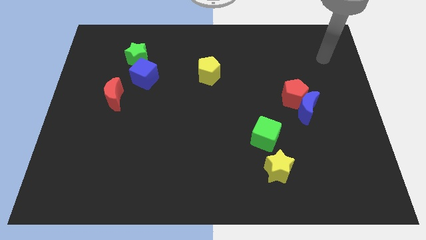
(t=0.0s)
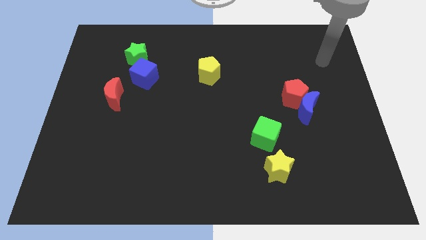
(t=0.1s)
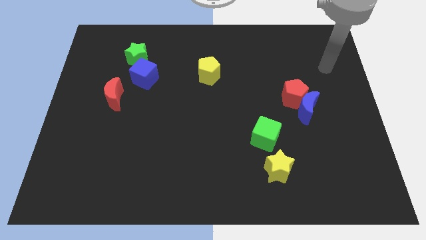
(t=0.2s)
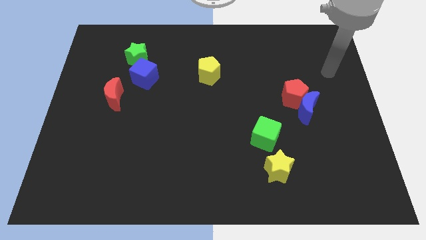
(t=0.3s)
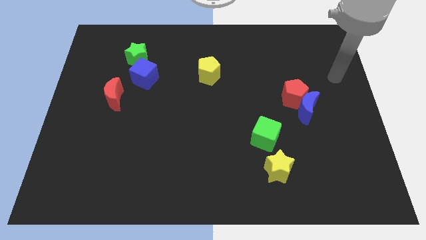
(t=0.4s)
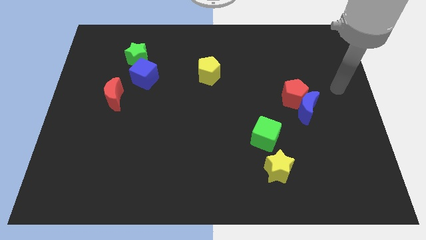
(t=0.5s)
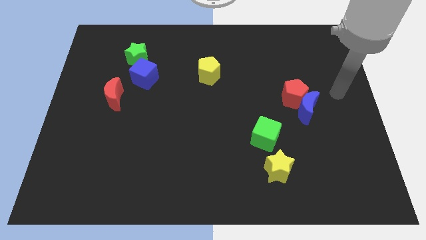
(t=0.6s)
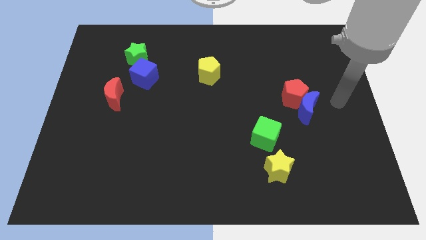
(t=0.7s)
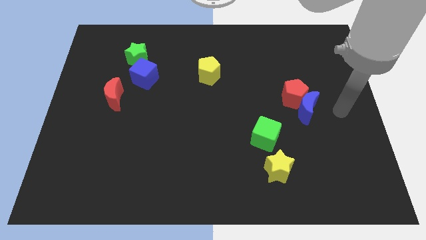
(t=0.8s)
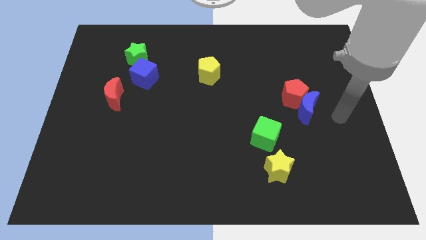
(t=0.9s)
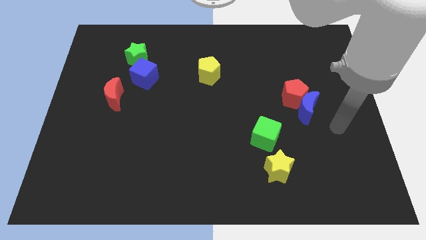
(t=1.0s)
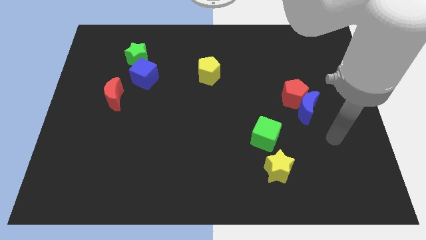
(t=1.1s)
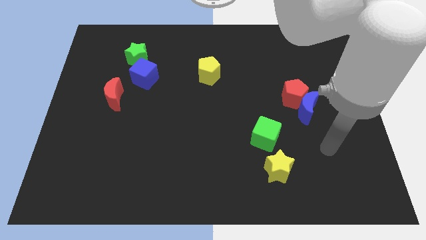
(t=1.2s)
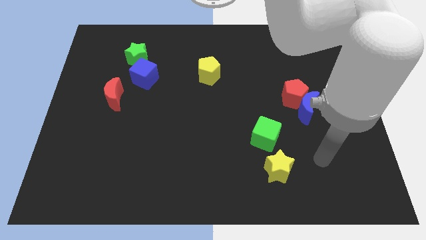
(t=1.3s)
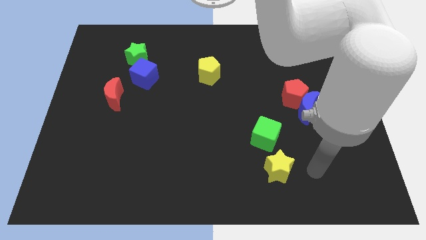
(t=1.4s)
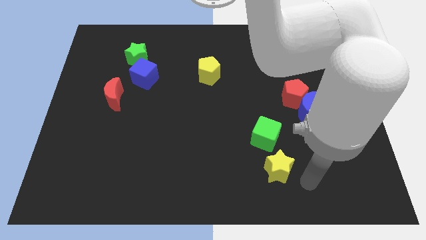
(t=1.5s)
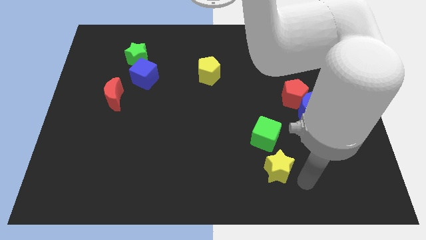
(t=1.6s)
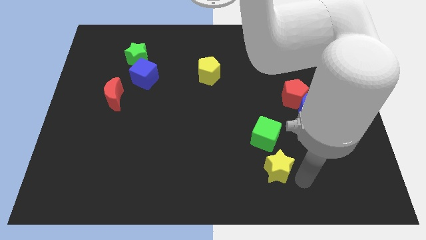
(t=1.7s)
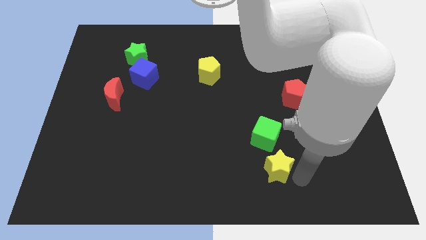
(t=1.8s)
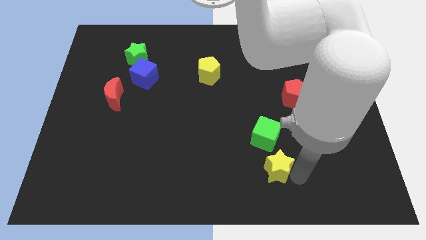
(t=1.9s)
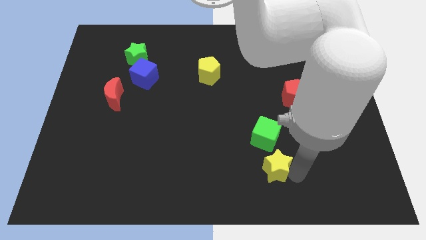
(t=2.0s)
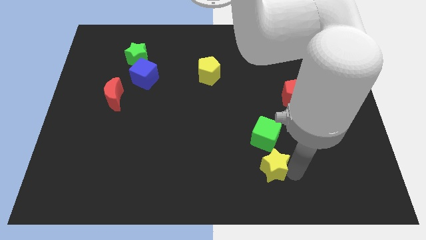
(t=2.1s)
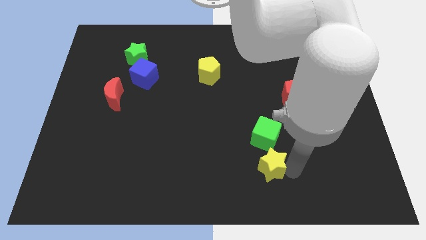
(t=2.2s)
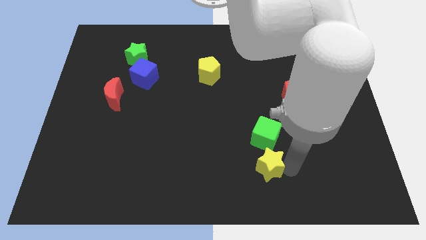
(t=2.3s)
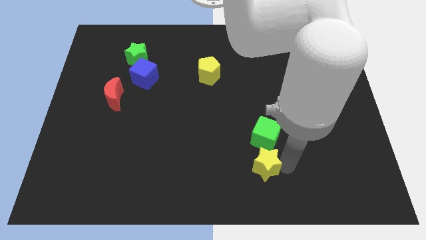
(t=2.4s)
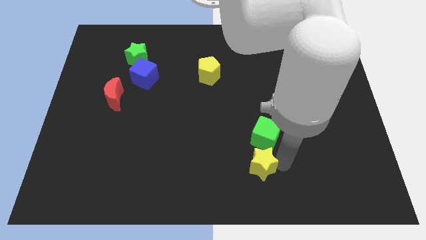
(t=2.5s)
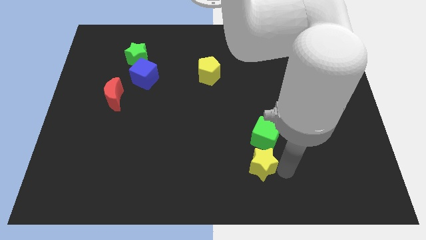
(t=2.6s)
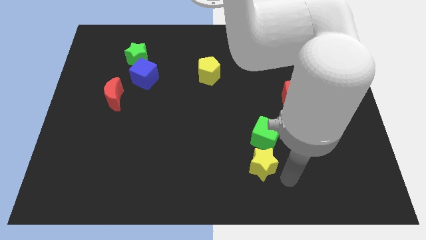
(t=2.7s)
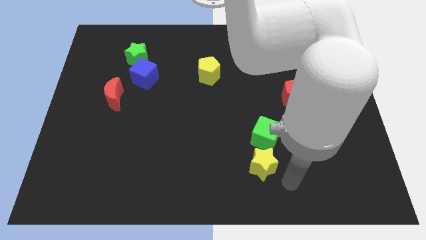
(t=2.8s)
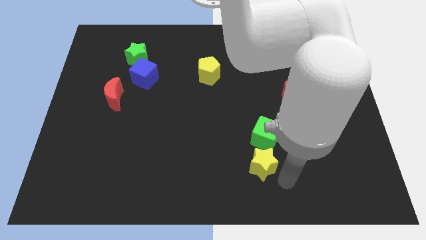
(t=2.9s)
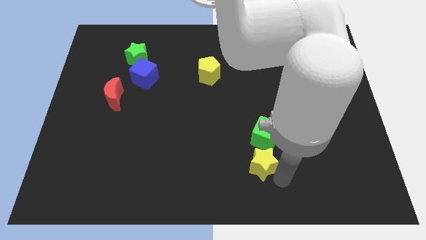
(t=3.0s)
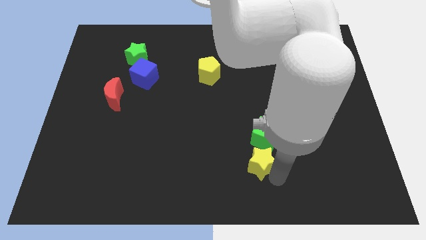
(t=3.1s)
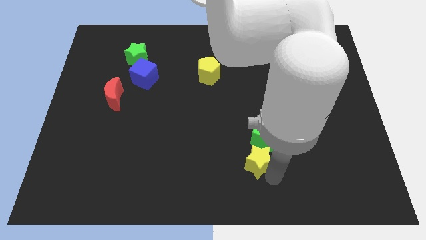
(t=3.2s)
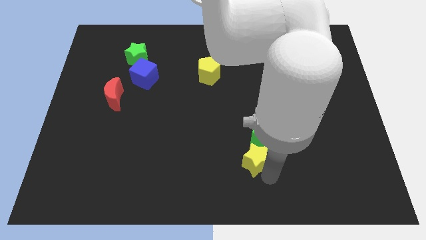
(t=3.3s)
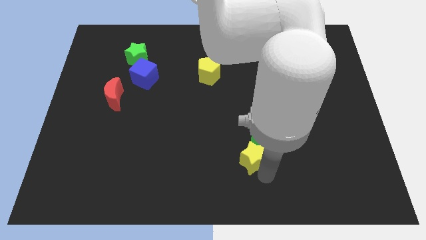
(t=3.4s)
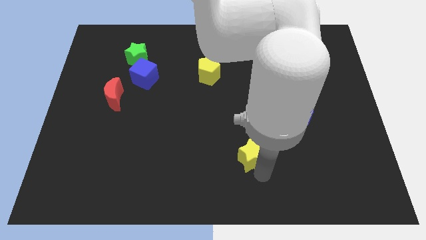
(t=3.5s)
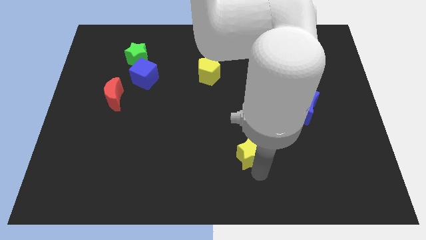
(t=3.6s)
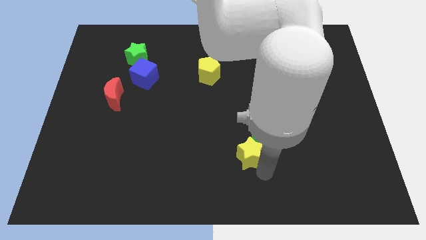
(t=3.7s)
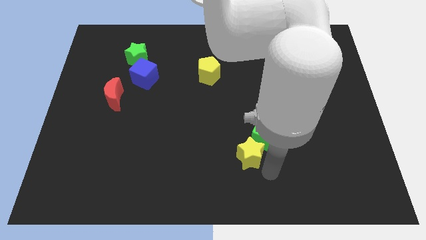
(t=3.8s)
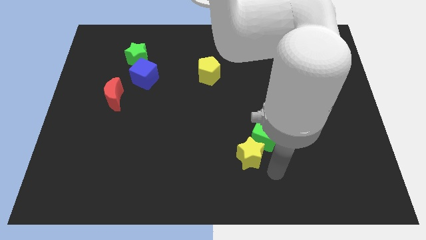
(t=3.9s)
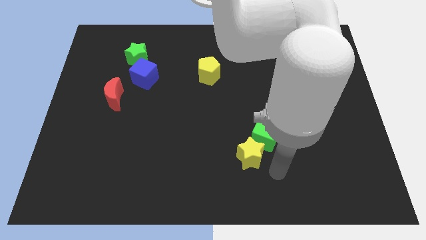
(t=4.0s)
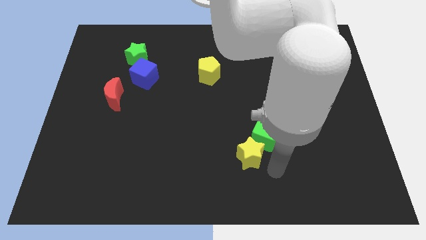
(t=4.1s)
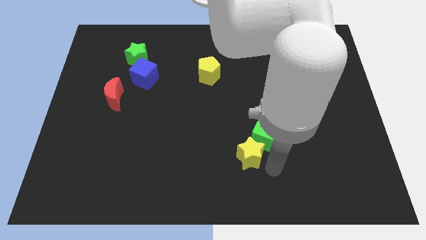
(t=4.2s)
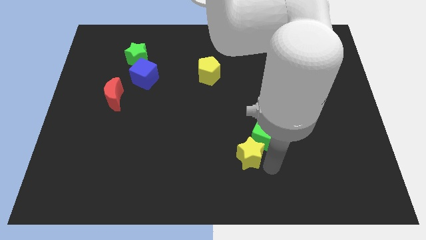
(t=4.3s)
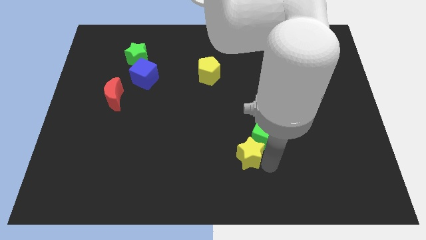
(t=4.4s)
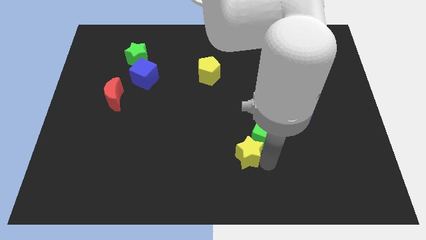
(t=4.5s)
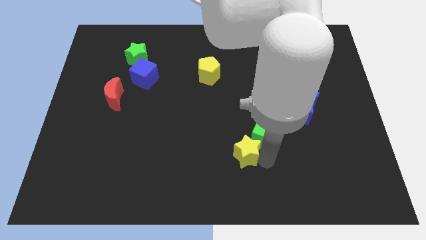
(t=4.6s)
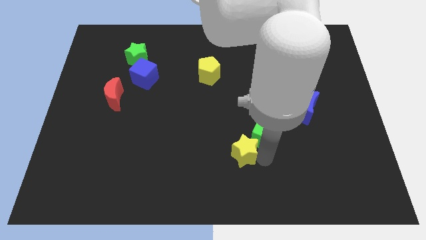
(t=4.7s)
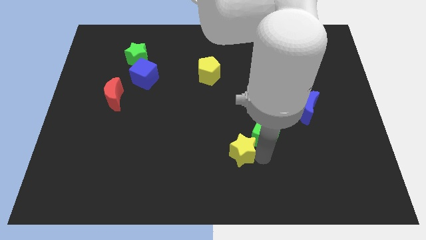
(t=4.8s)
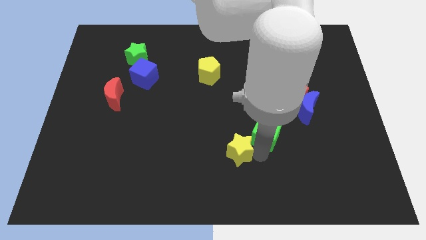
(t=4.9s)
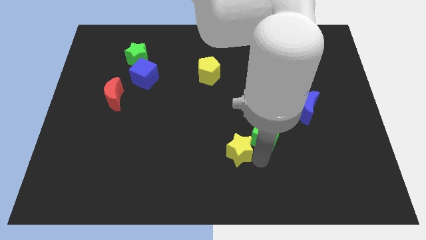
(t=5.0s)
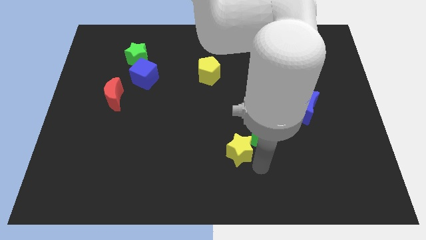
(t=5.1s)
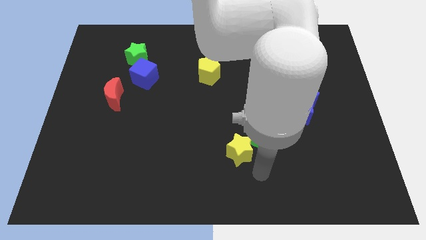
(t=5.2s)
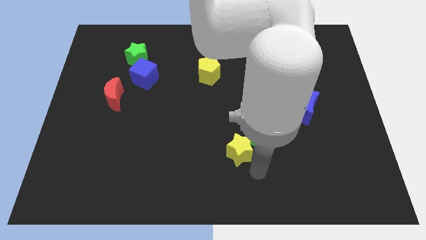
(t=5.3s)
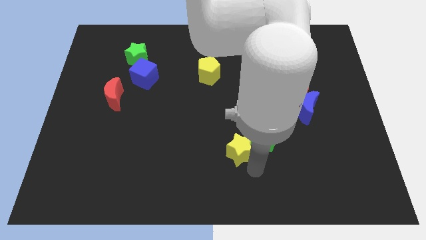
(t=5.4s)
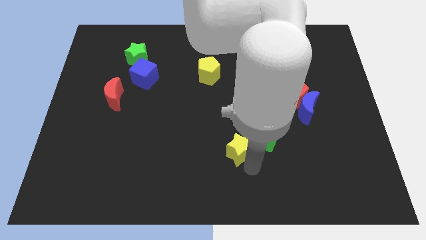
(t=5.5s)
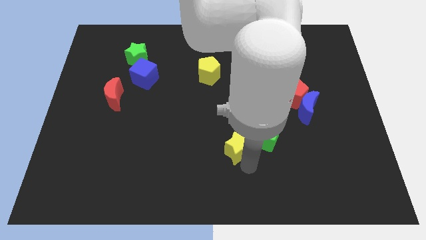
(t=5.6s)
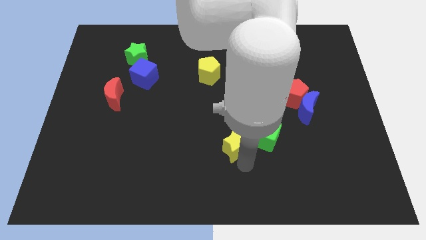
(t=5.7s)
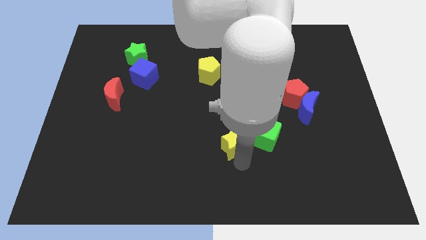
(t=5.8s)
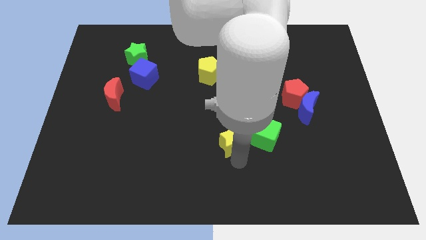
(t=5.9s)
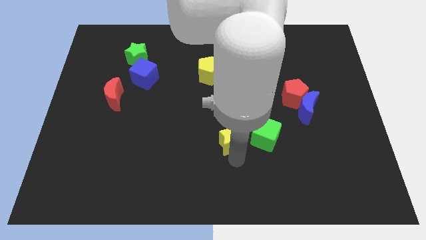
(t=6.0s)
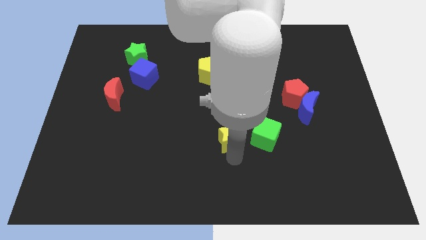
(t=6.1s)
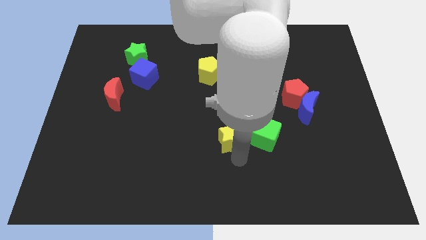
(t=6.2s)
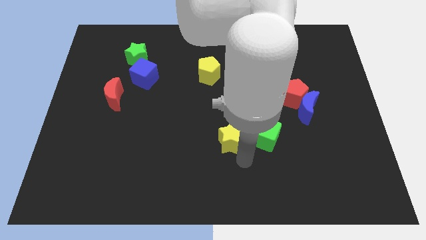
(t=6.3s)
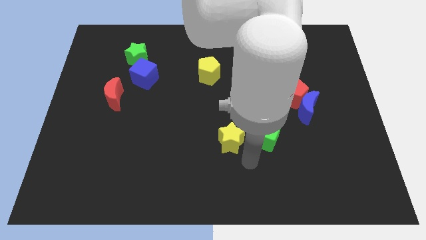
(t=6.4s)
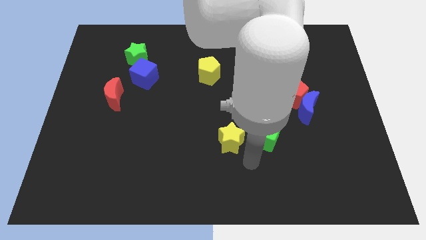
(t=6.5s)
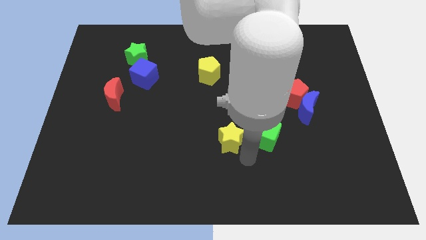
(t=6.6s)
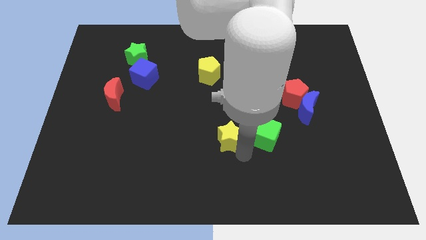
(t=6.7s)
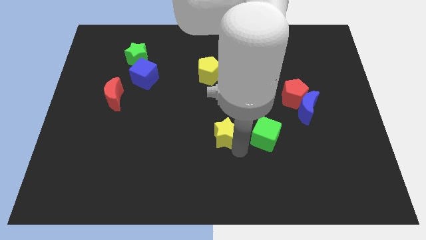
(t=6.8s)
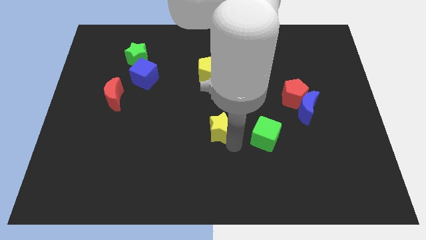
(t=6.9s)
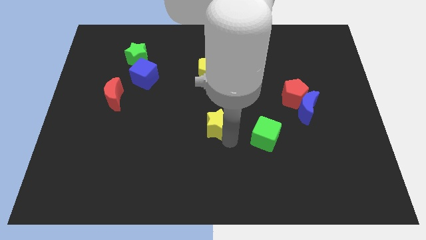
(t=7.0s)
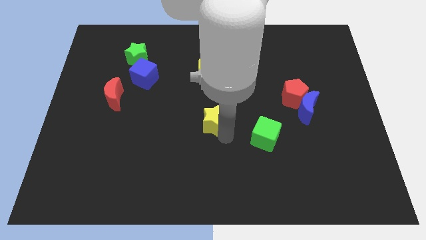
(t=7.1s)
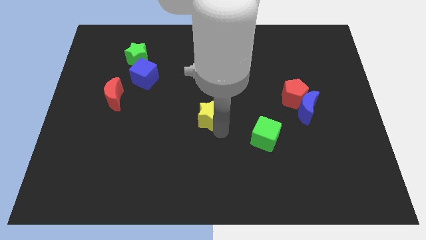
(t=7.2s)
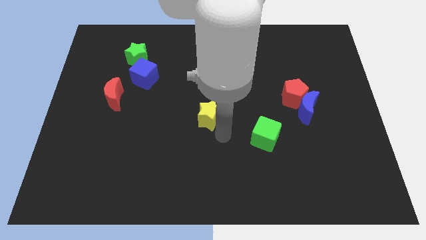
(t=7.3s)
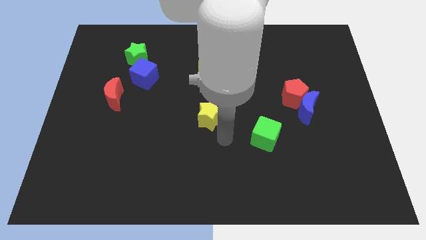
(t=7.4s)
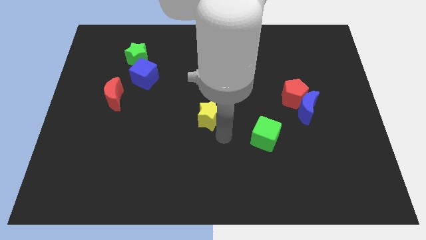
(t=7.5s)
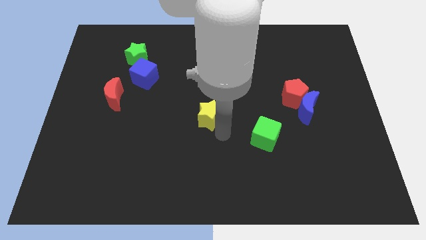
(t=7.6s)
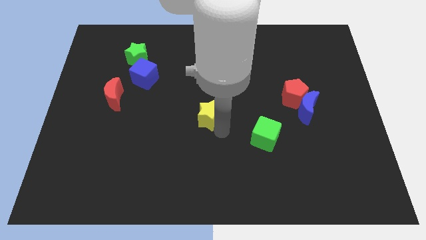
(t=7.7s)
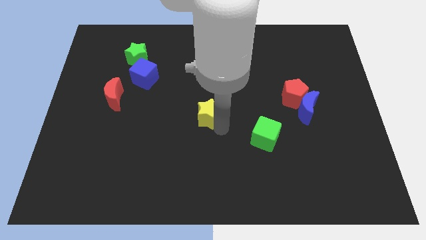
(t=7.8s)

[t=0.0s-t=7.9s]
slide the yellow star diagonally up and to the left
